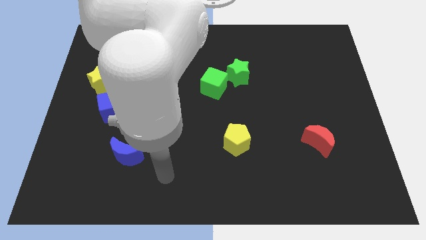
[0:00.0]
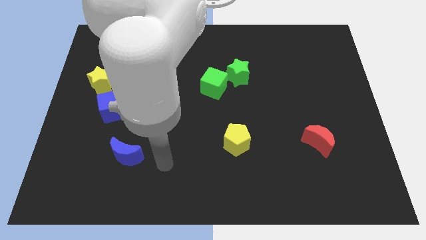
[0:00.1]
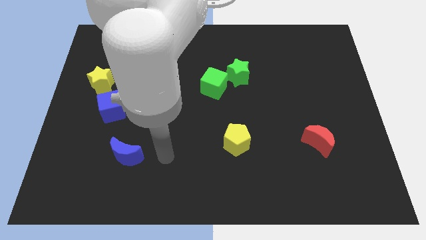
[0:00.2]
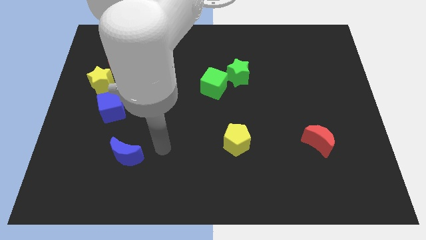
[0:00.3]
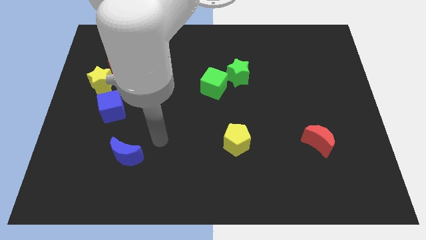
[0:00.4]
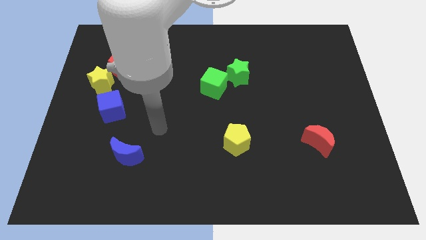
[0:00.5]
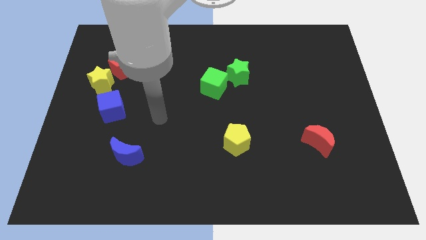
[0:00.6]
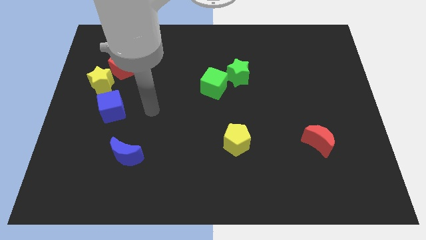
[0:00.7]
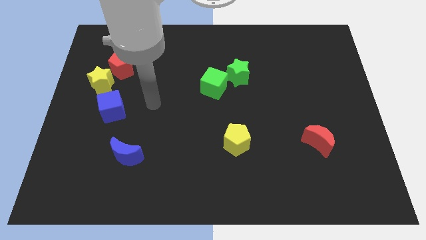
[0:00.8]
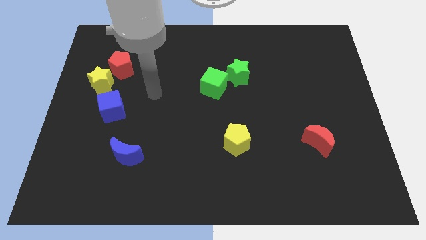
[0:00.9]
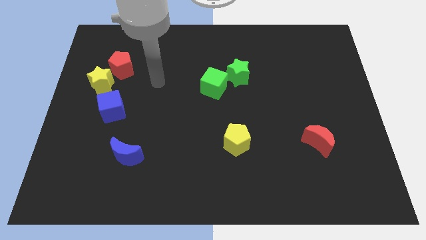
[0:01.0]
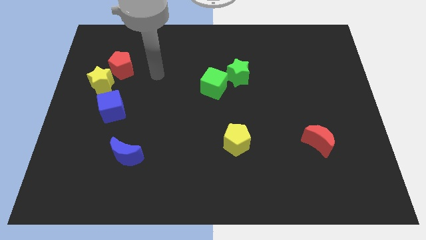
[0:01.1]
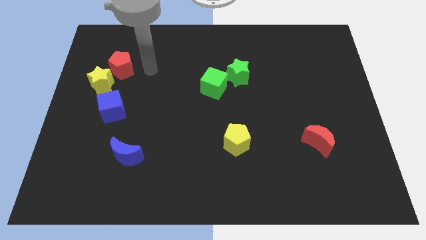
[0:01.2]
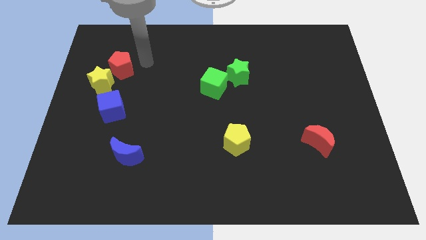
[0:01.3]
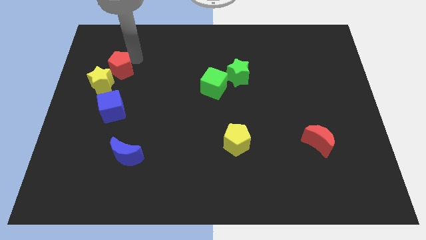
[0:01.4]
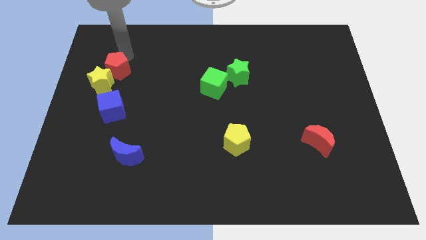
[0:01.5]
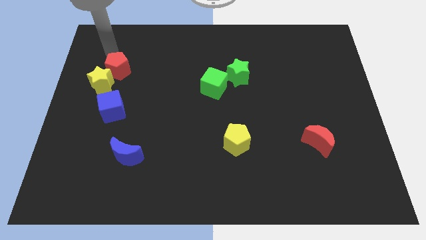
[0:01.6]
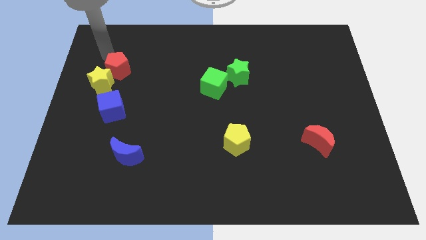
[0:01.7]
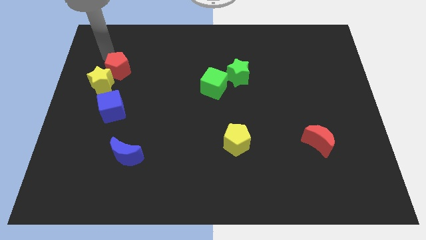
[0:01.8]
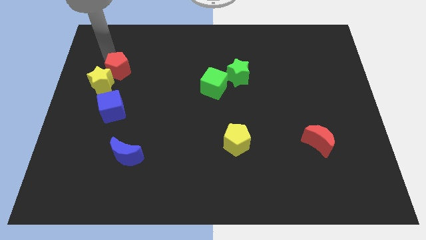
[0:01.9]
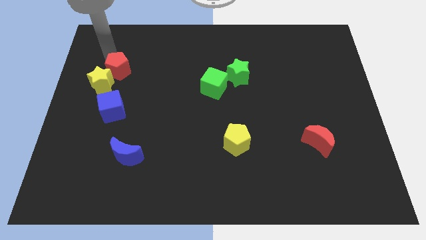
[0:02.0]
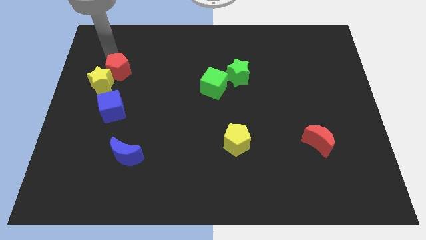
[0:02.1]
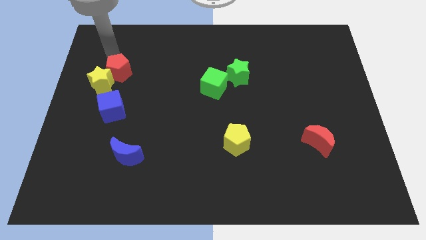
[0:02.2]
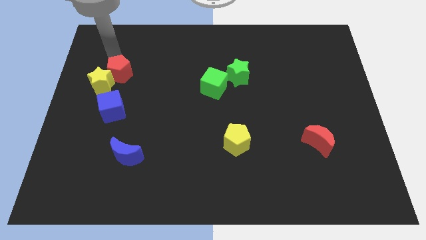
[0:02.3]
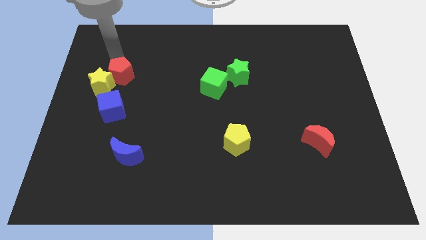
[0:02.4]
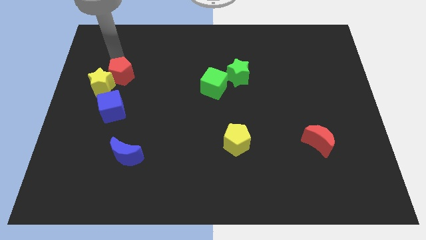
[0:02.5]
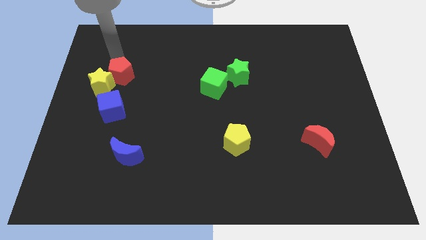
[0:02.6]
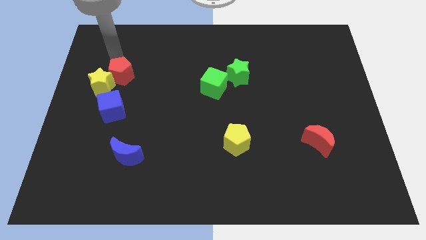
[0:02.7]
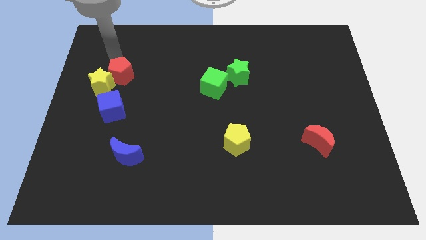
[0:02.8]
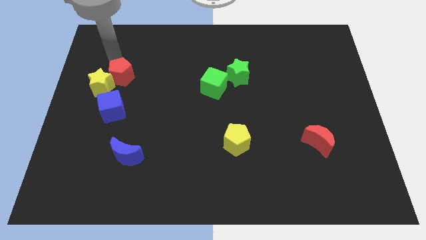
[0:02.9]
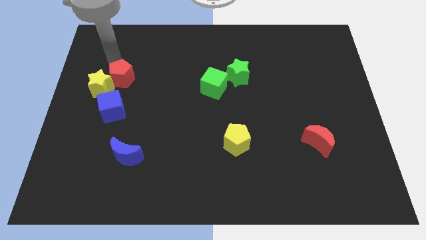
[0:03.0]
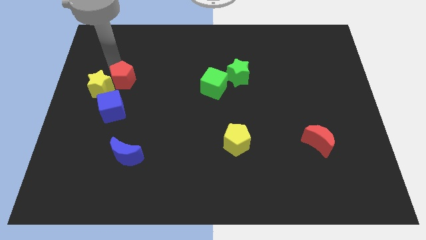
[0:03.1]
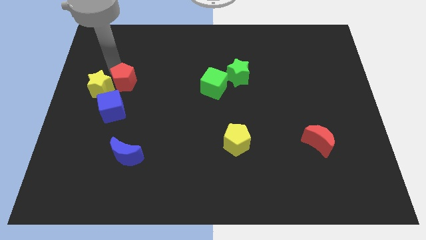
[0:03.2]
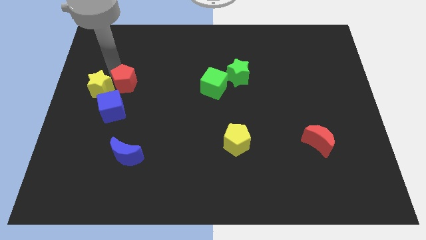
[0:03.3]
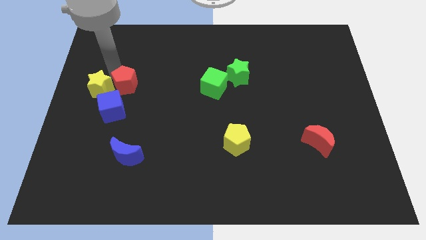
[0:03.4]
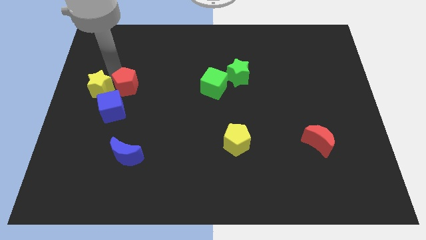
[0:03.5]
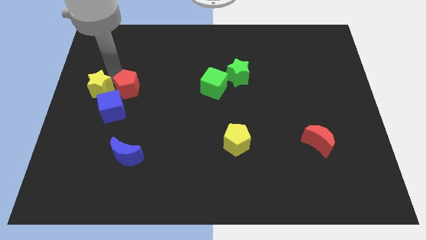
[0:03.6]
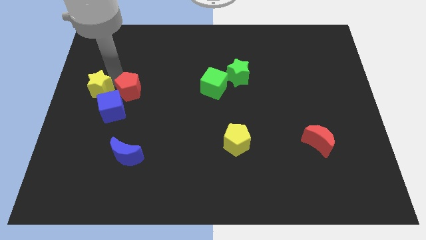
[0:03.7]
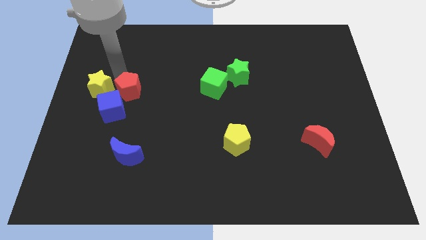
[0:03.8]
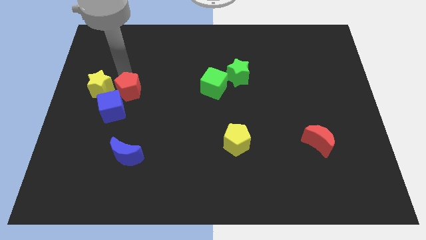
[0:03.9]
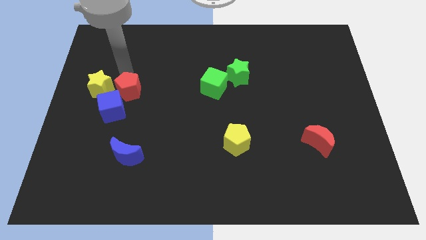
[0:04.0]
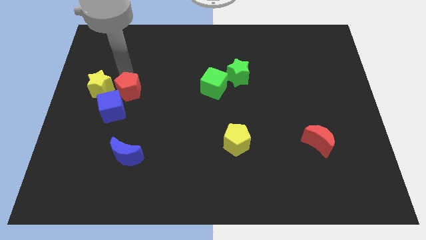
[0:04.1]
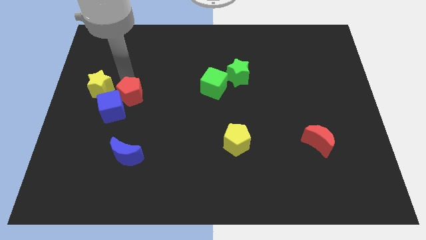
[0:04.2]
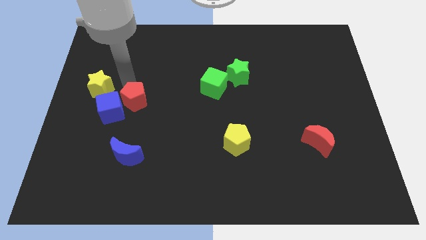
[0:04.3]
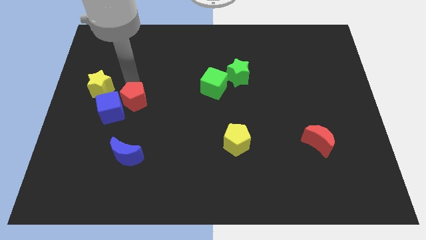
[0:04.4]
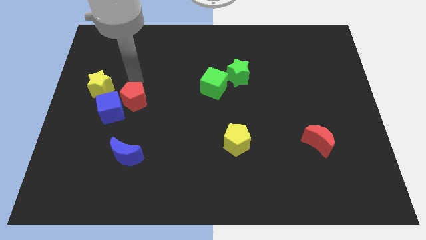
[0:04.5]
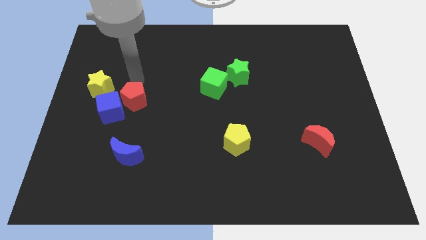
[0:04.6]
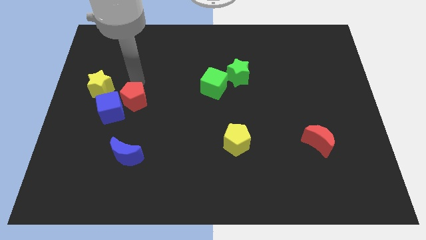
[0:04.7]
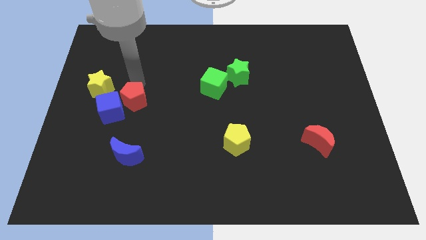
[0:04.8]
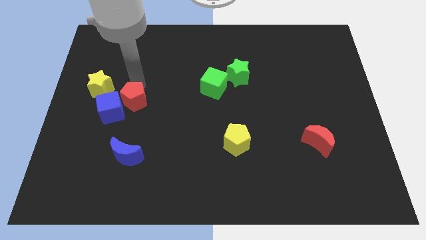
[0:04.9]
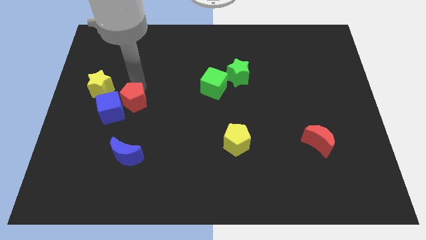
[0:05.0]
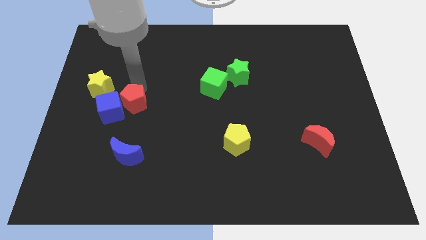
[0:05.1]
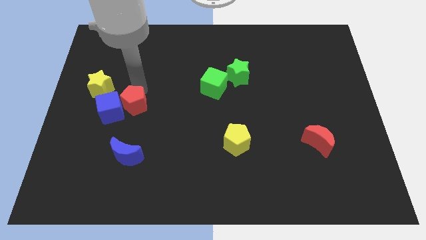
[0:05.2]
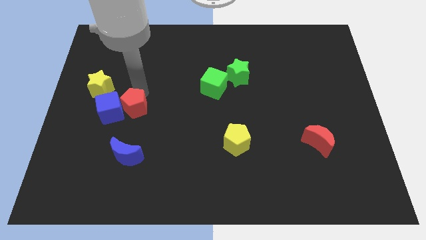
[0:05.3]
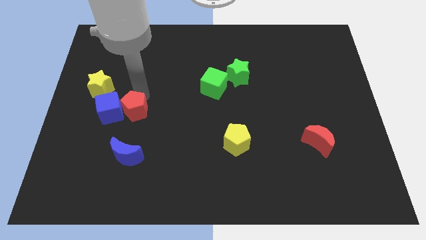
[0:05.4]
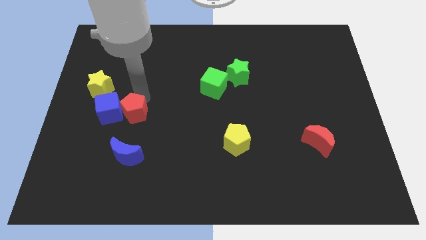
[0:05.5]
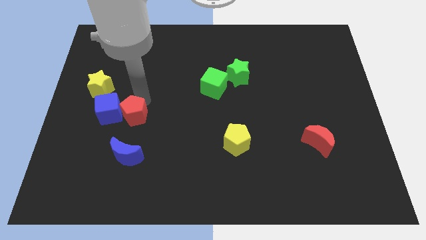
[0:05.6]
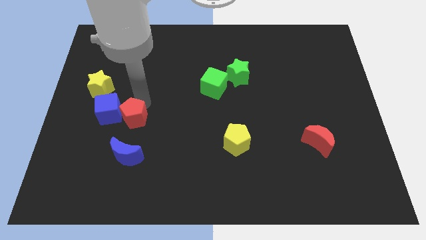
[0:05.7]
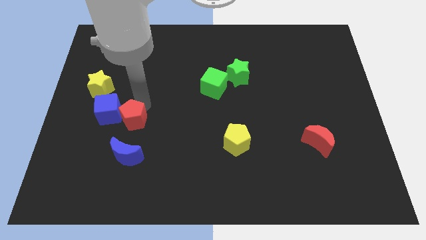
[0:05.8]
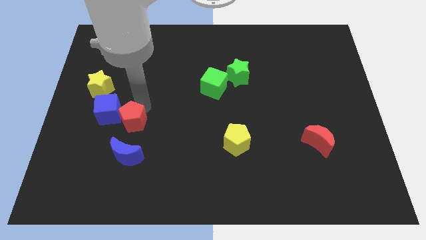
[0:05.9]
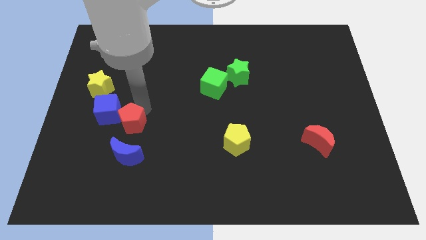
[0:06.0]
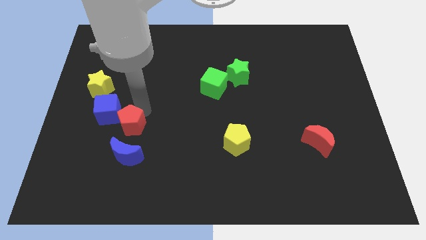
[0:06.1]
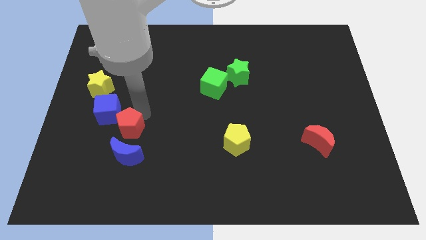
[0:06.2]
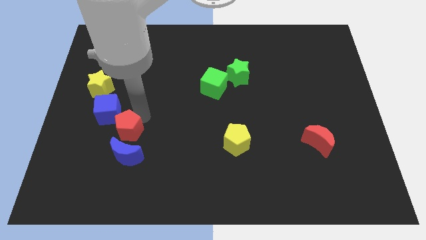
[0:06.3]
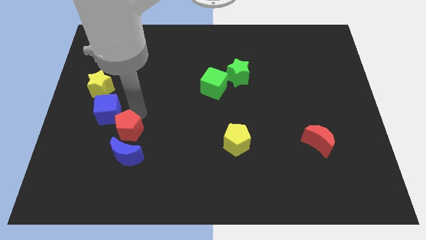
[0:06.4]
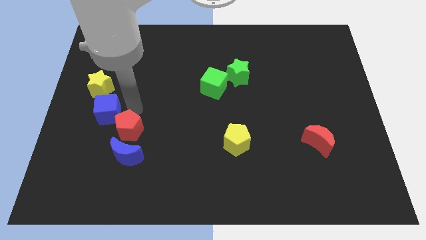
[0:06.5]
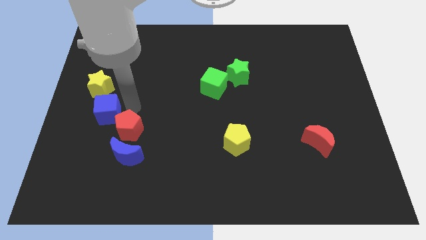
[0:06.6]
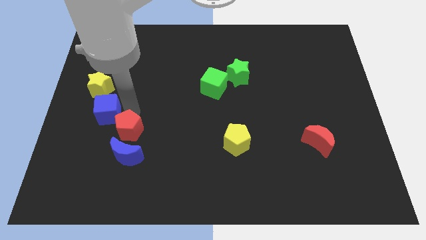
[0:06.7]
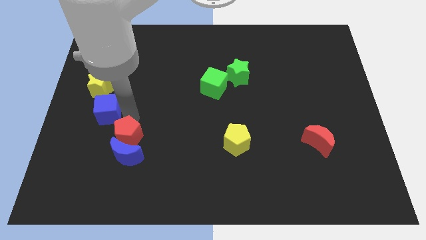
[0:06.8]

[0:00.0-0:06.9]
push the red pentagon close to the blue moon
